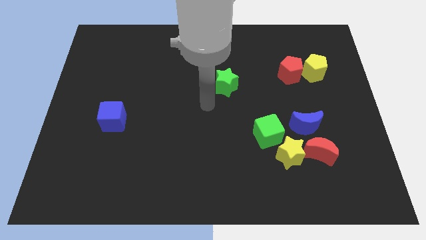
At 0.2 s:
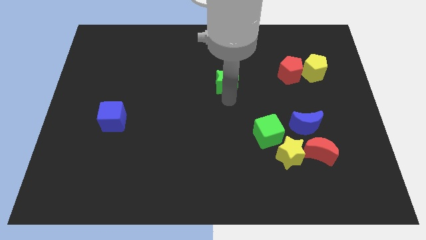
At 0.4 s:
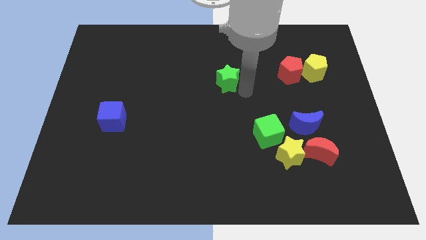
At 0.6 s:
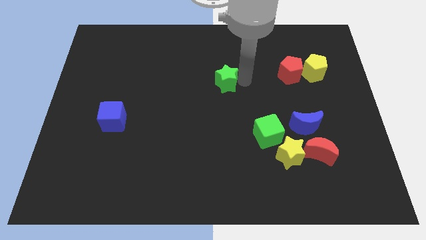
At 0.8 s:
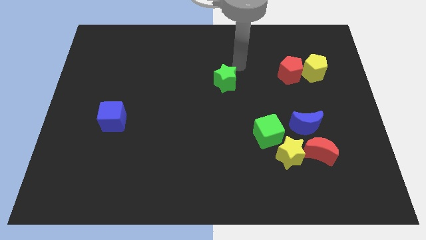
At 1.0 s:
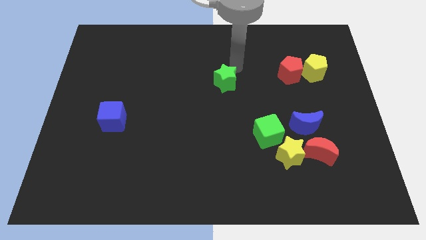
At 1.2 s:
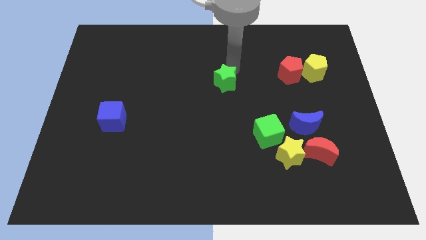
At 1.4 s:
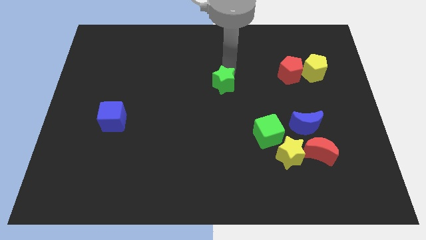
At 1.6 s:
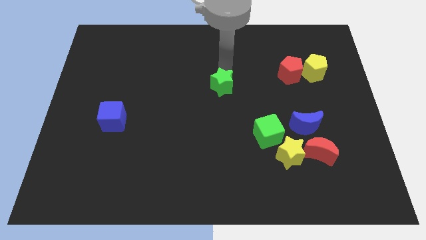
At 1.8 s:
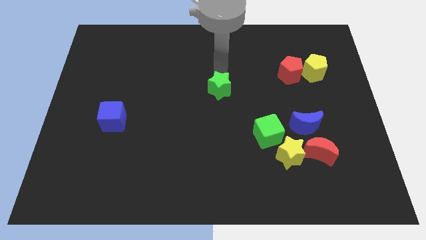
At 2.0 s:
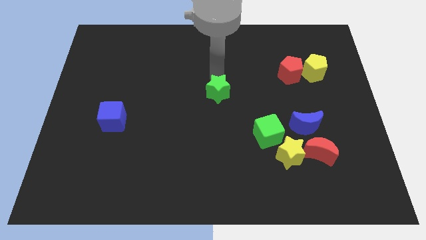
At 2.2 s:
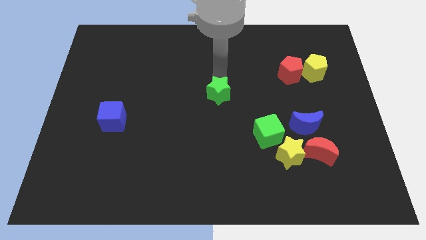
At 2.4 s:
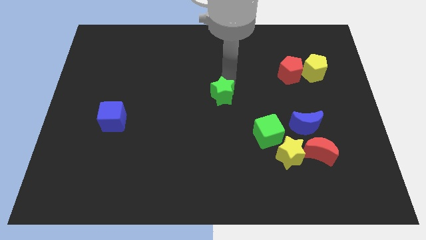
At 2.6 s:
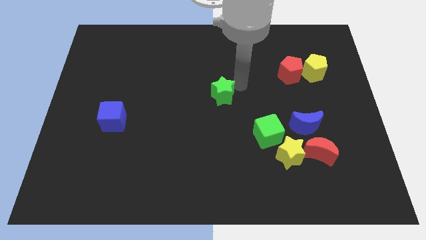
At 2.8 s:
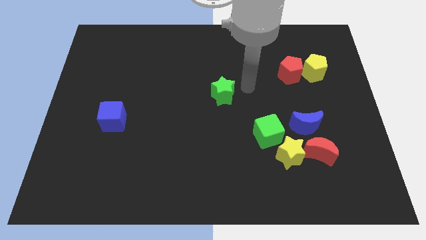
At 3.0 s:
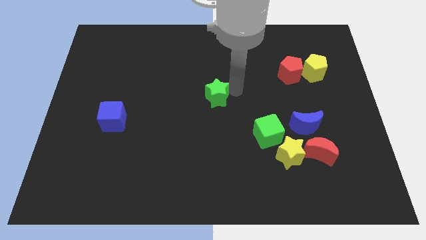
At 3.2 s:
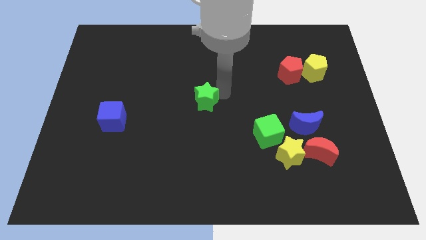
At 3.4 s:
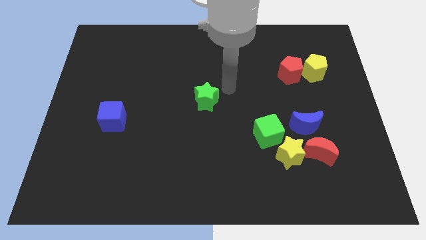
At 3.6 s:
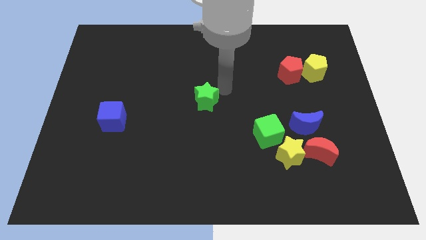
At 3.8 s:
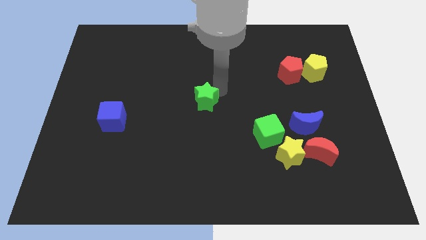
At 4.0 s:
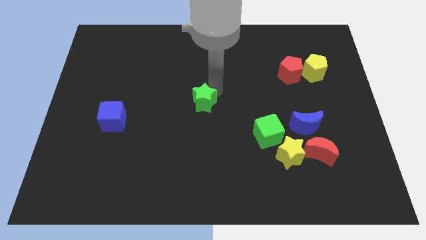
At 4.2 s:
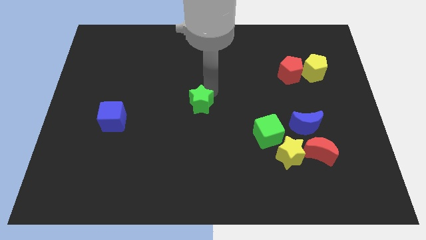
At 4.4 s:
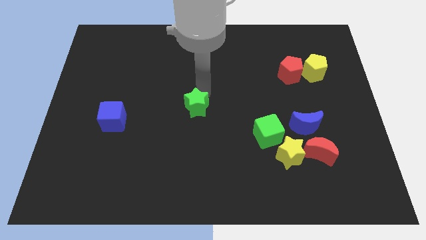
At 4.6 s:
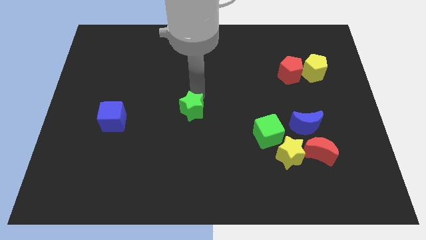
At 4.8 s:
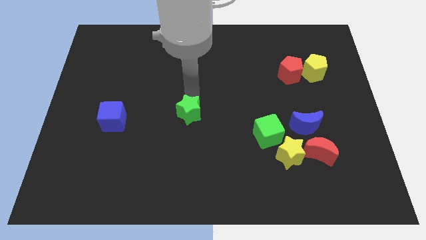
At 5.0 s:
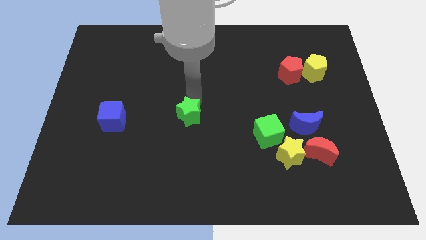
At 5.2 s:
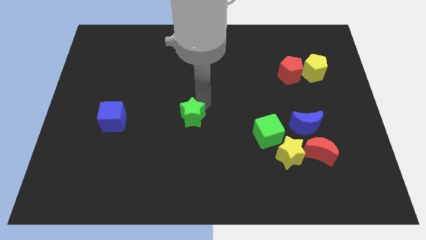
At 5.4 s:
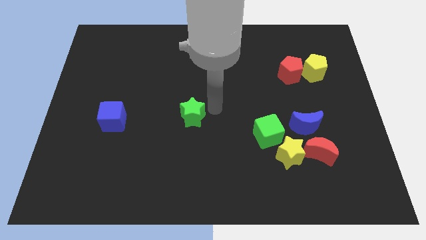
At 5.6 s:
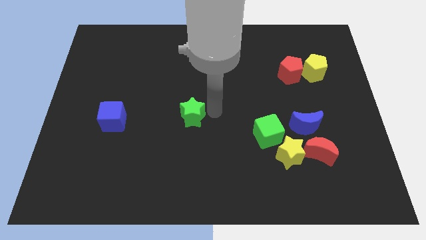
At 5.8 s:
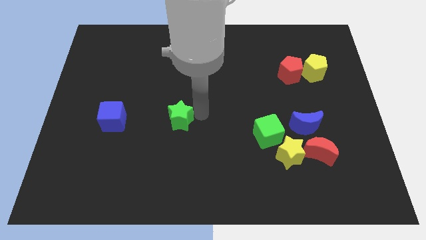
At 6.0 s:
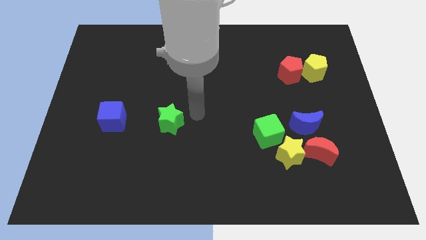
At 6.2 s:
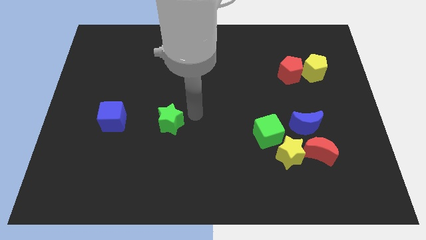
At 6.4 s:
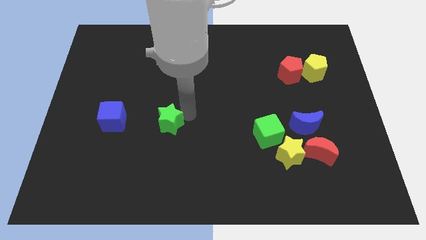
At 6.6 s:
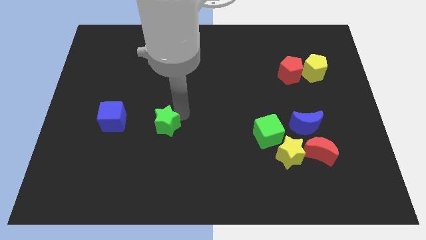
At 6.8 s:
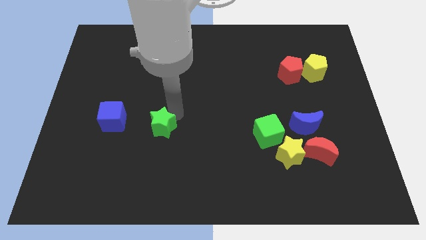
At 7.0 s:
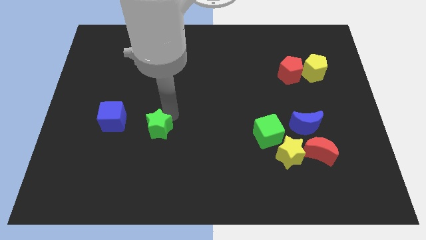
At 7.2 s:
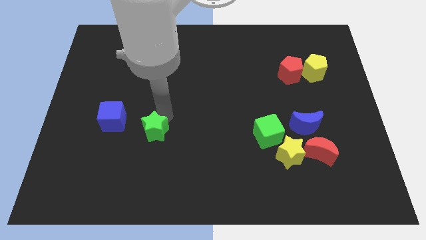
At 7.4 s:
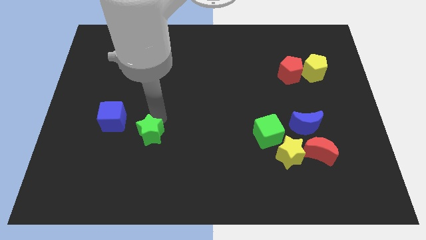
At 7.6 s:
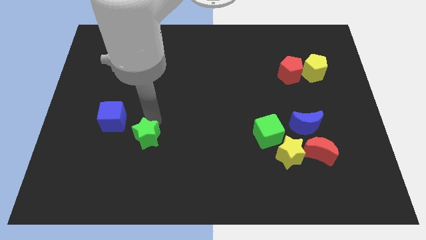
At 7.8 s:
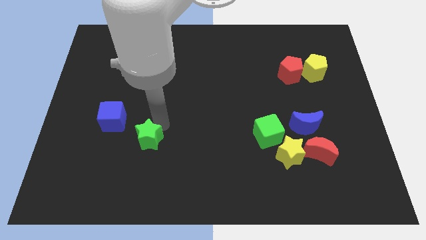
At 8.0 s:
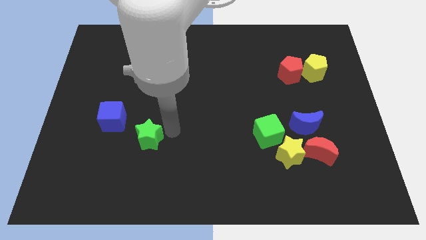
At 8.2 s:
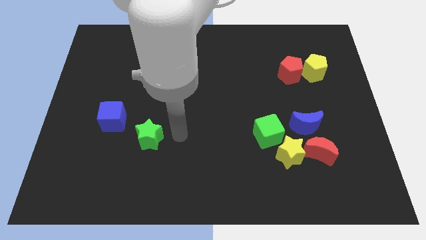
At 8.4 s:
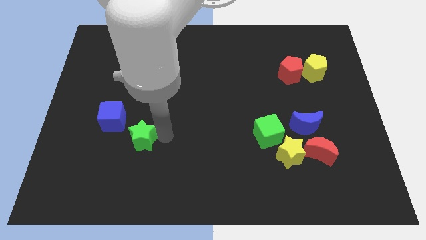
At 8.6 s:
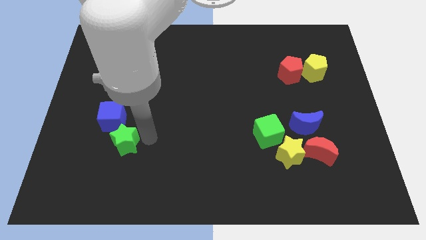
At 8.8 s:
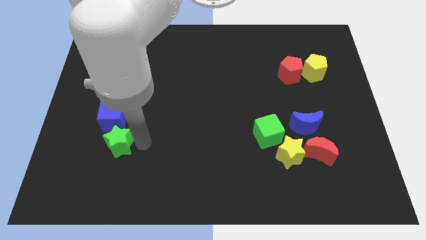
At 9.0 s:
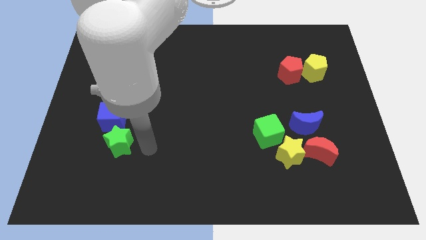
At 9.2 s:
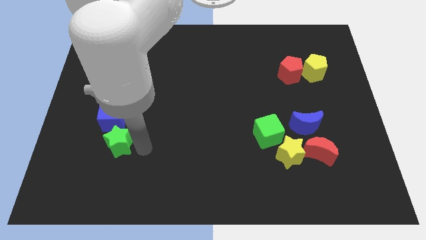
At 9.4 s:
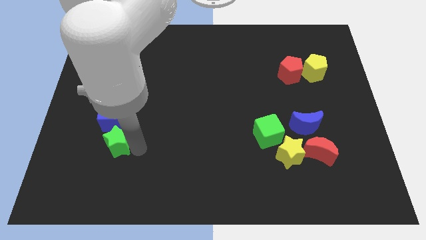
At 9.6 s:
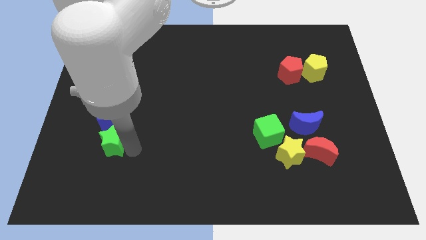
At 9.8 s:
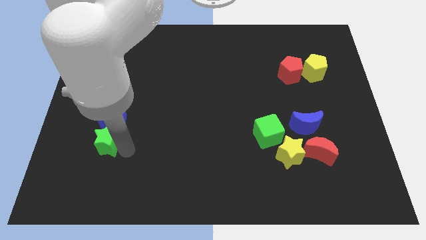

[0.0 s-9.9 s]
push the green star to the bottom left side of the blue cube

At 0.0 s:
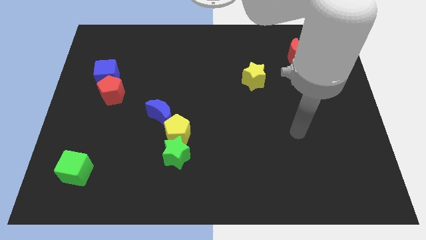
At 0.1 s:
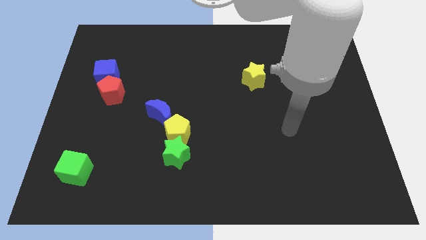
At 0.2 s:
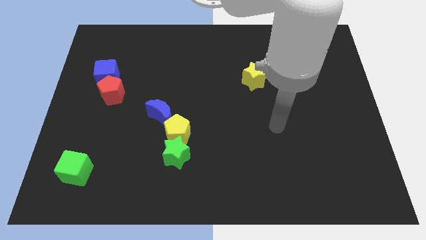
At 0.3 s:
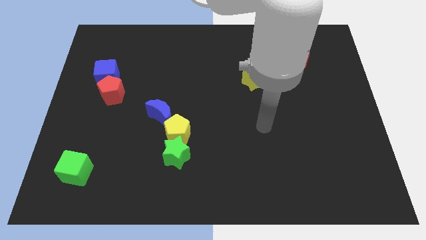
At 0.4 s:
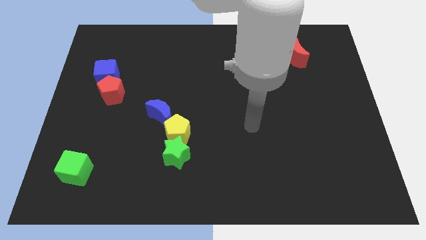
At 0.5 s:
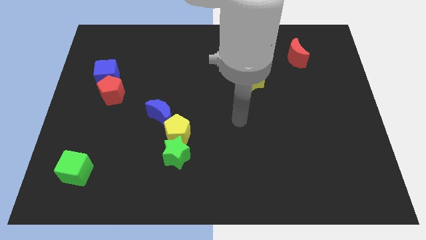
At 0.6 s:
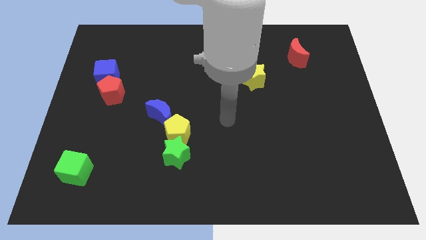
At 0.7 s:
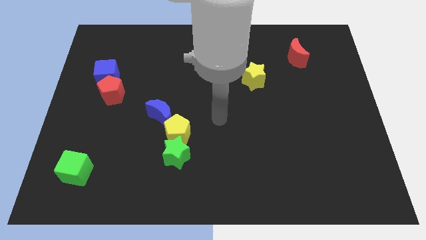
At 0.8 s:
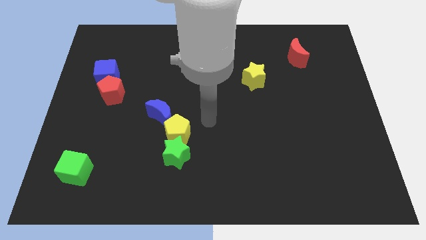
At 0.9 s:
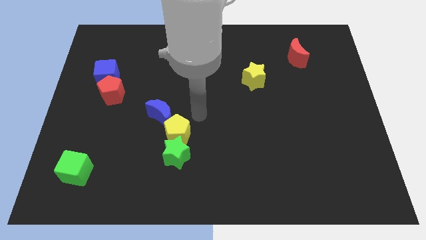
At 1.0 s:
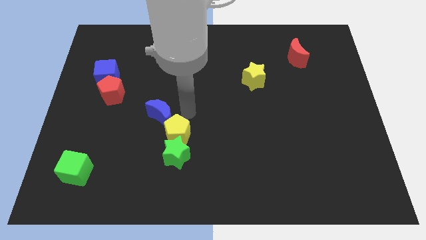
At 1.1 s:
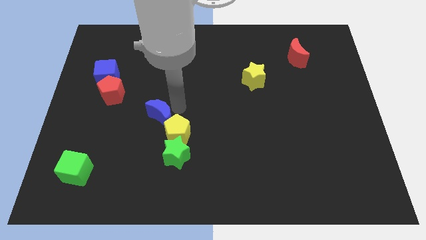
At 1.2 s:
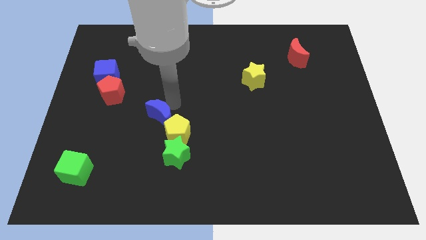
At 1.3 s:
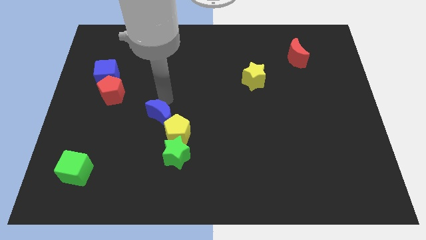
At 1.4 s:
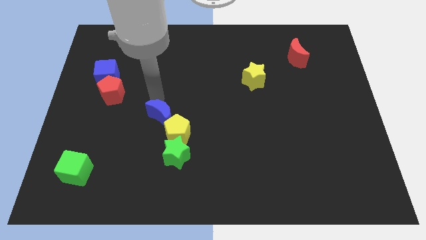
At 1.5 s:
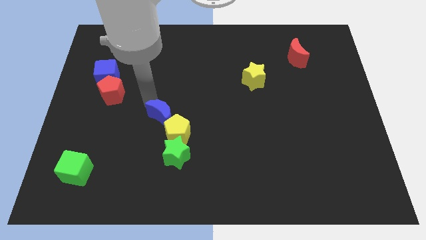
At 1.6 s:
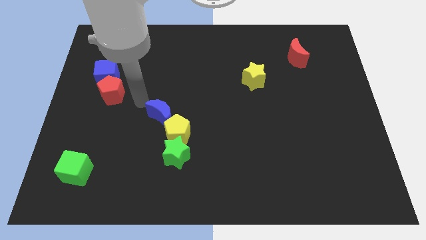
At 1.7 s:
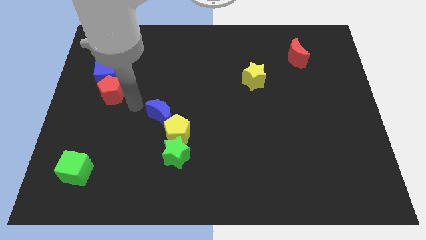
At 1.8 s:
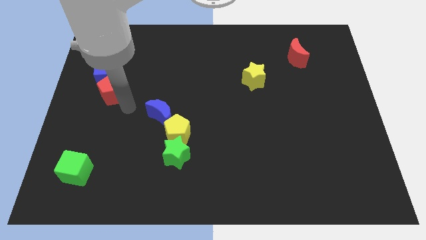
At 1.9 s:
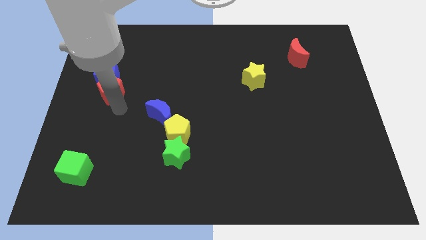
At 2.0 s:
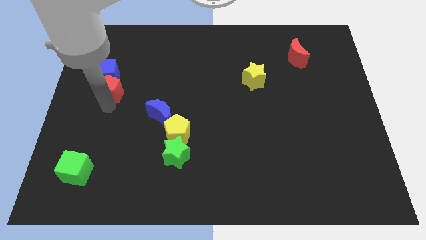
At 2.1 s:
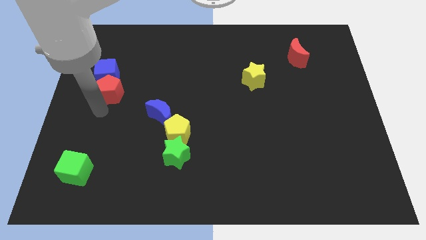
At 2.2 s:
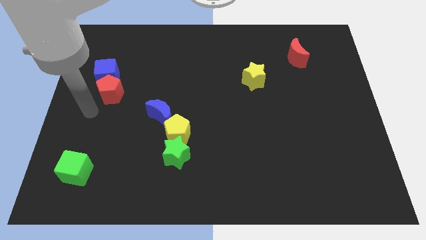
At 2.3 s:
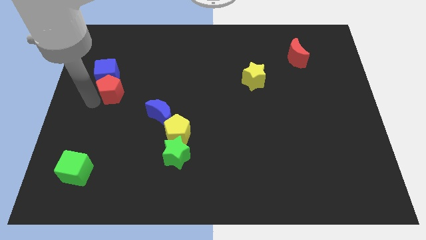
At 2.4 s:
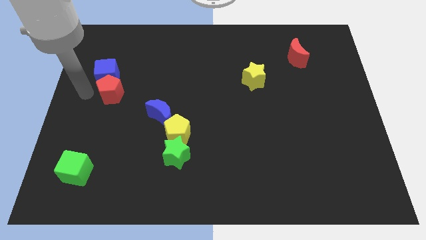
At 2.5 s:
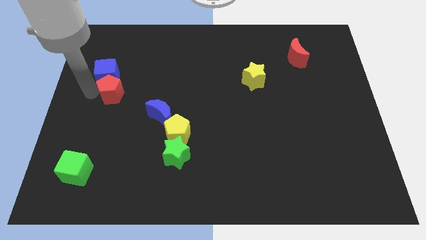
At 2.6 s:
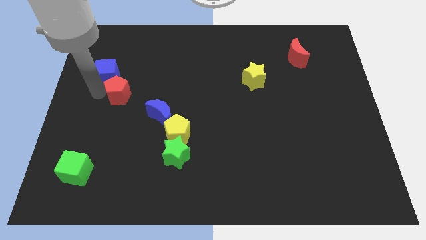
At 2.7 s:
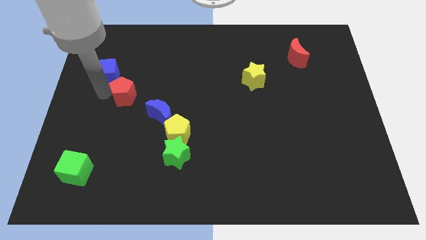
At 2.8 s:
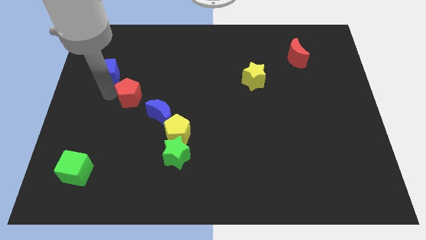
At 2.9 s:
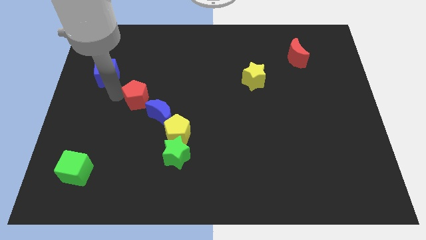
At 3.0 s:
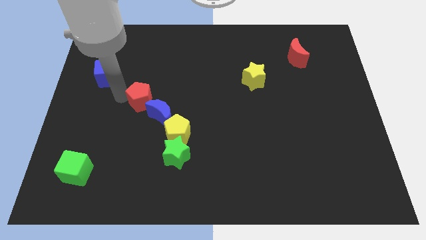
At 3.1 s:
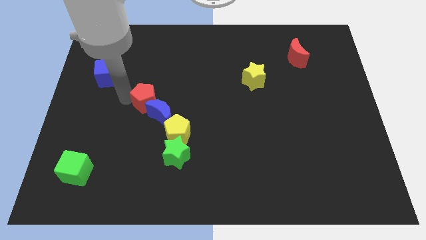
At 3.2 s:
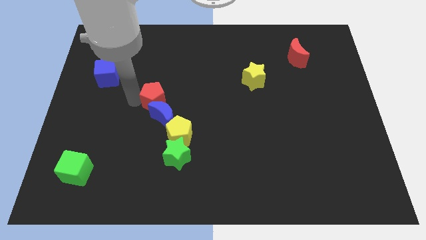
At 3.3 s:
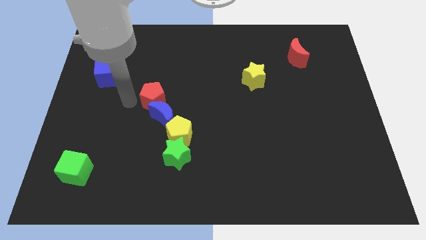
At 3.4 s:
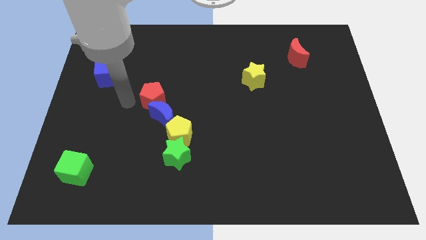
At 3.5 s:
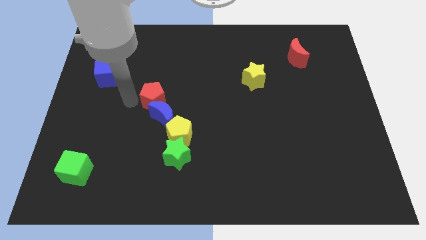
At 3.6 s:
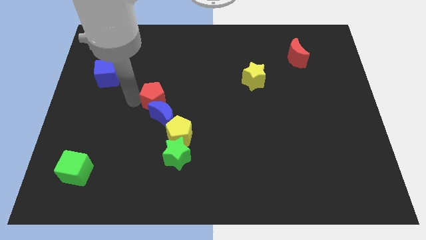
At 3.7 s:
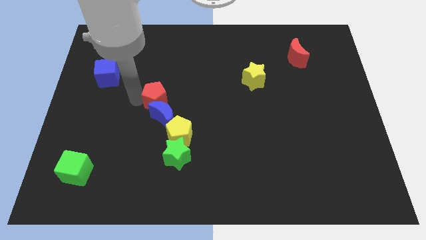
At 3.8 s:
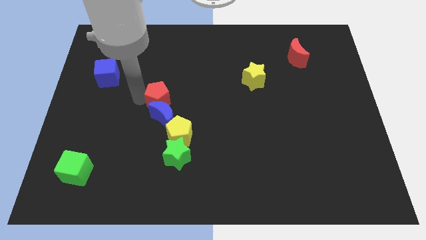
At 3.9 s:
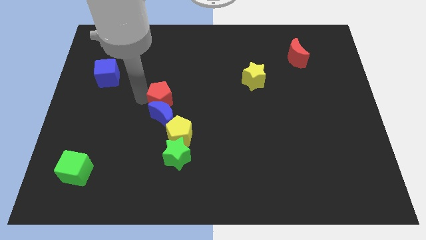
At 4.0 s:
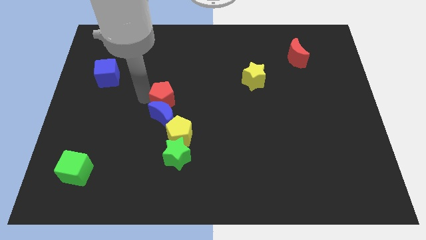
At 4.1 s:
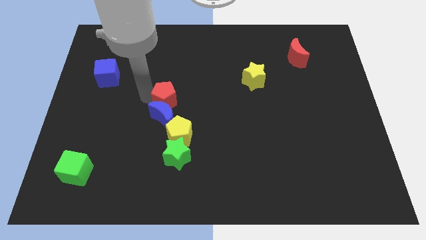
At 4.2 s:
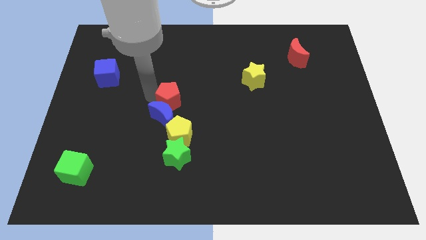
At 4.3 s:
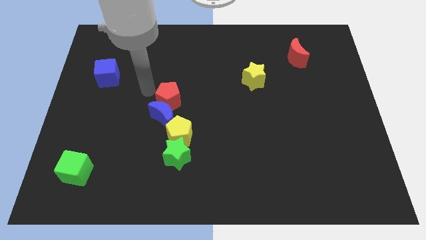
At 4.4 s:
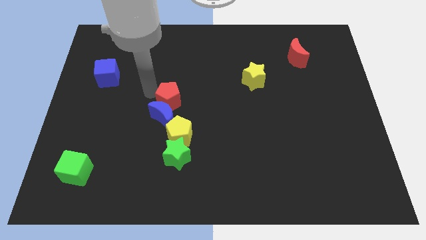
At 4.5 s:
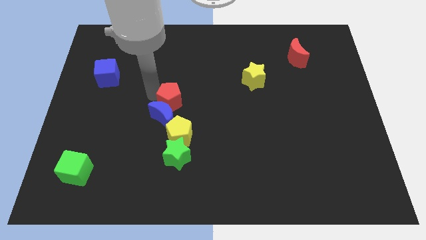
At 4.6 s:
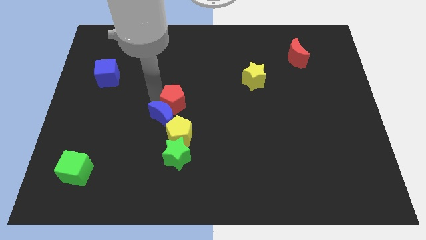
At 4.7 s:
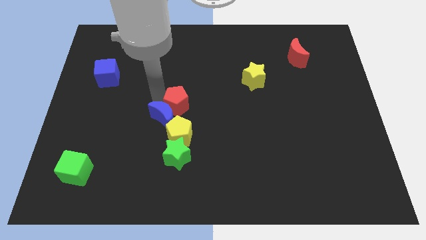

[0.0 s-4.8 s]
move the red pentagon just right of the blue moon
